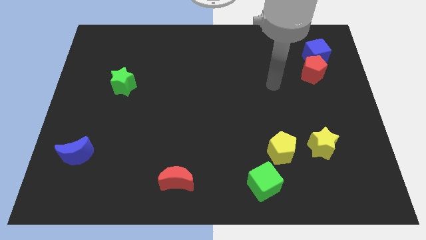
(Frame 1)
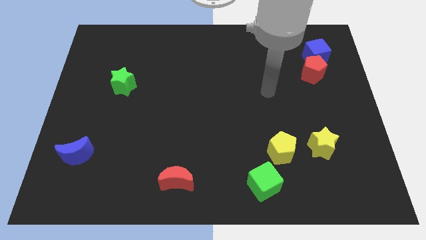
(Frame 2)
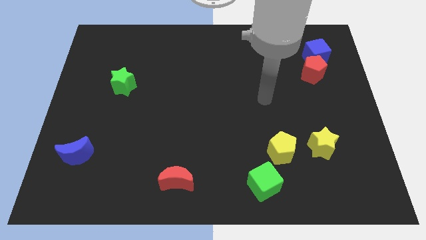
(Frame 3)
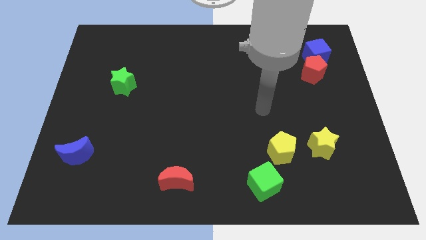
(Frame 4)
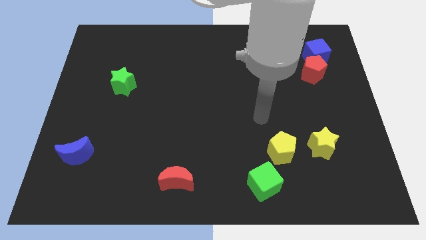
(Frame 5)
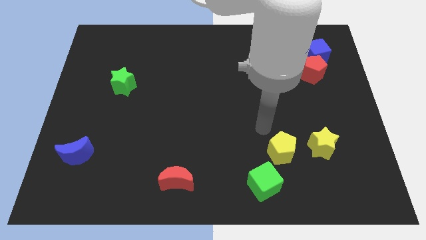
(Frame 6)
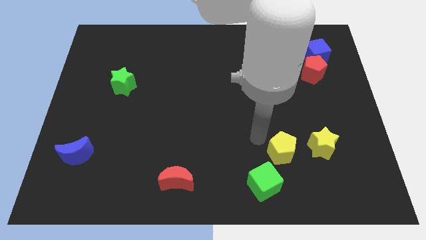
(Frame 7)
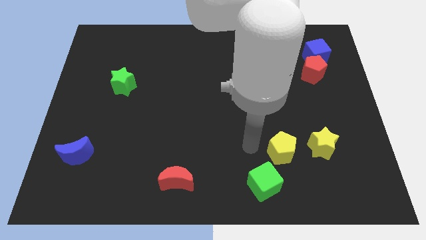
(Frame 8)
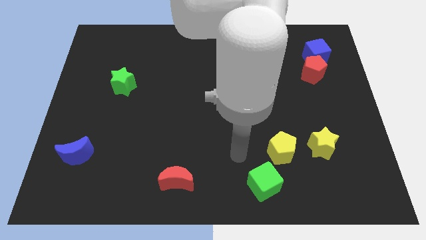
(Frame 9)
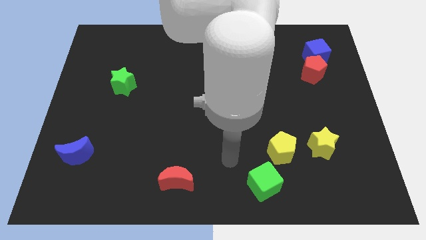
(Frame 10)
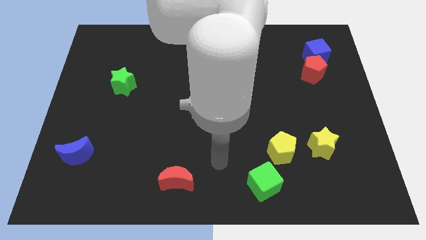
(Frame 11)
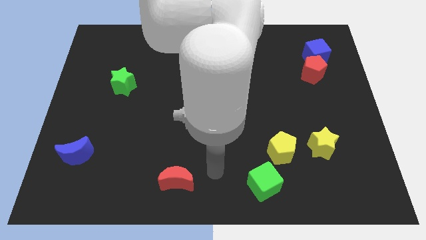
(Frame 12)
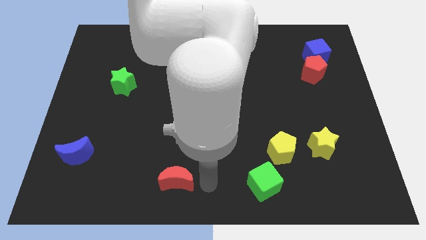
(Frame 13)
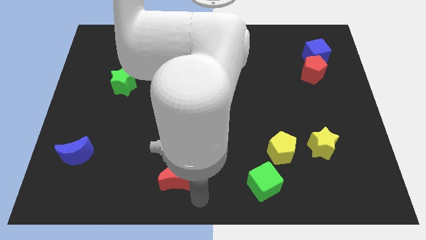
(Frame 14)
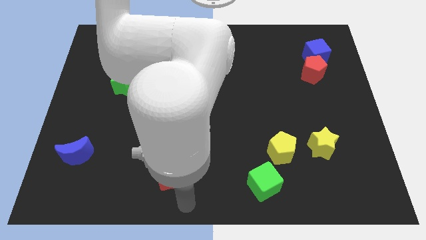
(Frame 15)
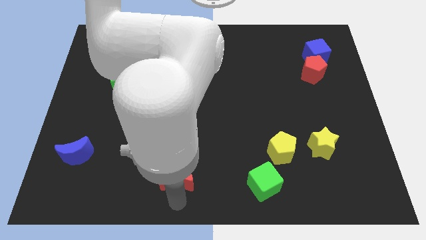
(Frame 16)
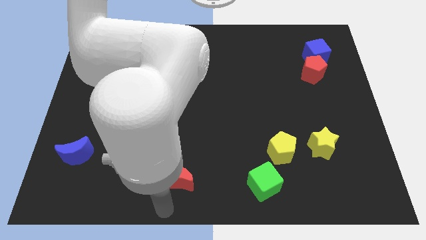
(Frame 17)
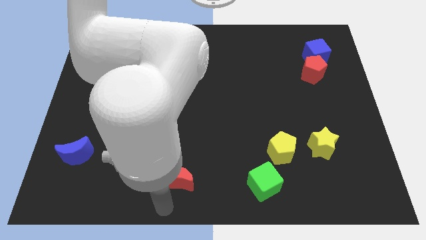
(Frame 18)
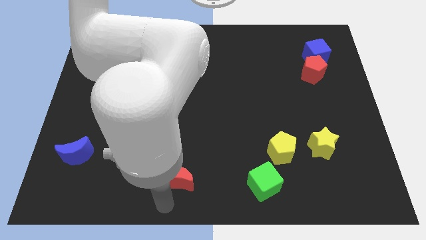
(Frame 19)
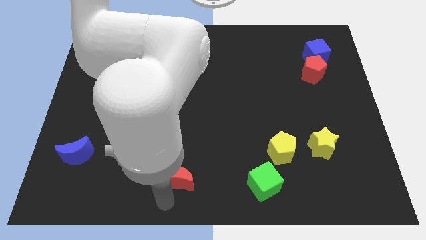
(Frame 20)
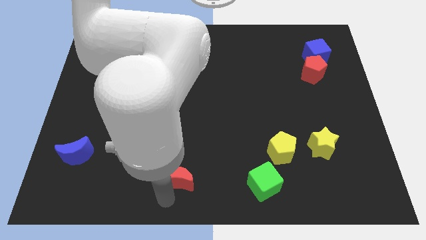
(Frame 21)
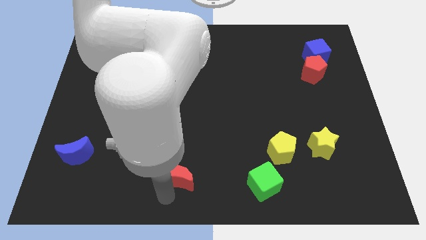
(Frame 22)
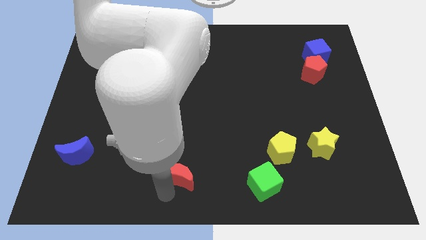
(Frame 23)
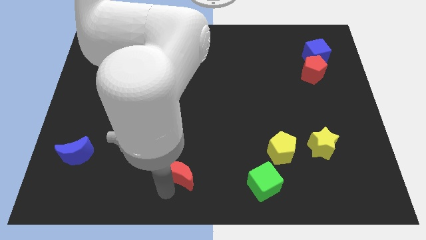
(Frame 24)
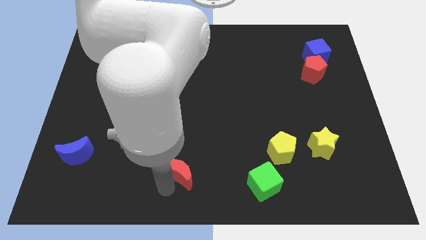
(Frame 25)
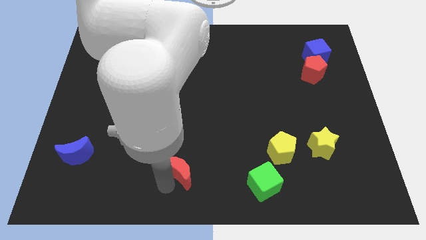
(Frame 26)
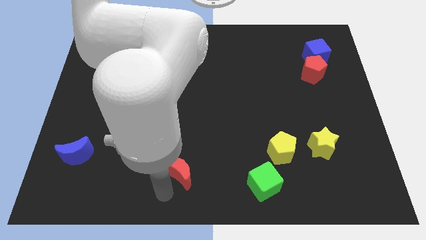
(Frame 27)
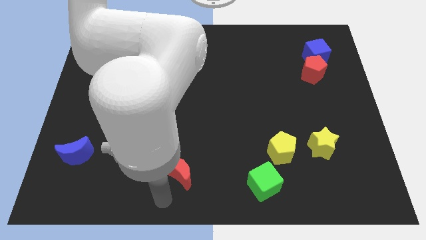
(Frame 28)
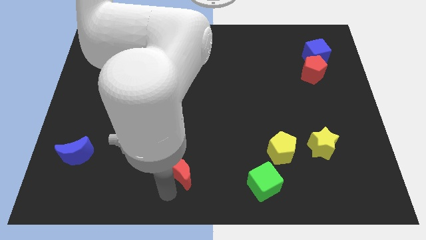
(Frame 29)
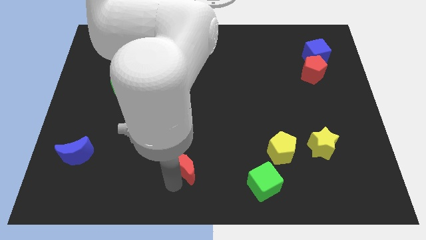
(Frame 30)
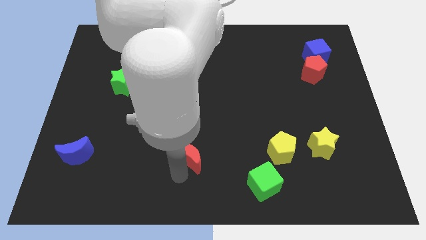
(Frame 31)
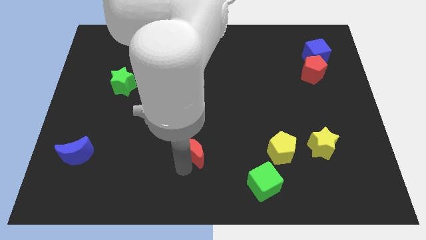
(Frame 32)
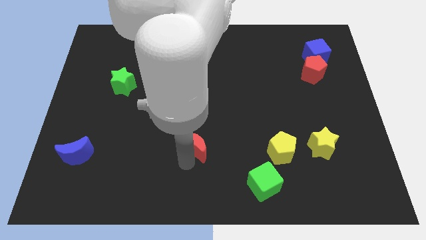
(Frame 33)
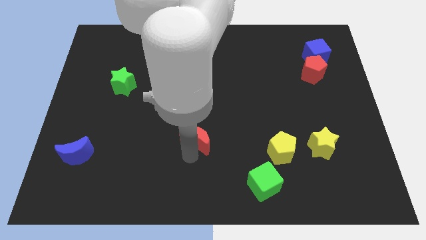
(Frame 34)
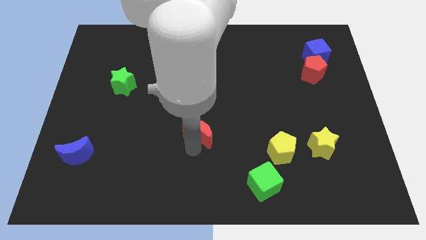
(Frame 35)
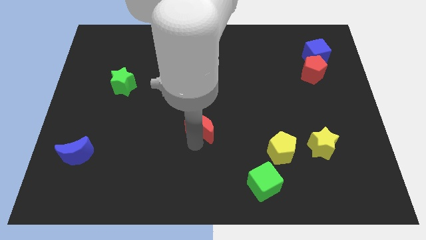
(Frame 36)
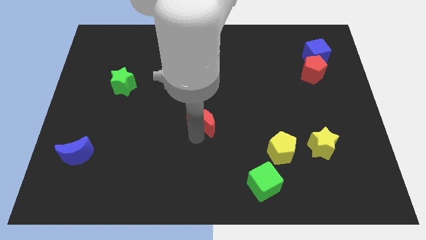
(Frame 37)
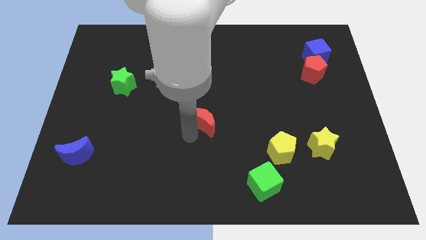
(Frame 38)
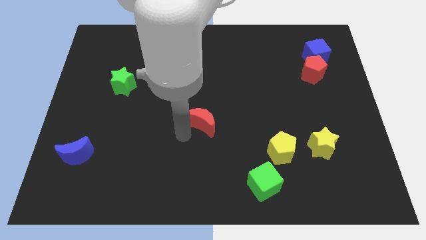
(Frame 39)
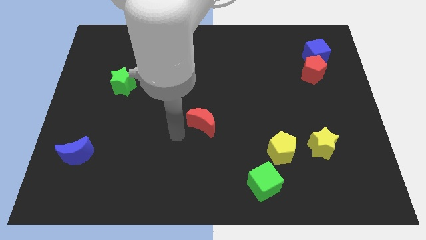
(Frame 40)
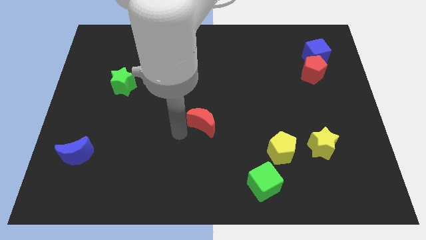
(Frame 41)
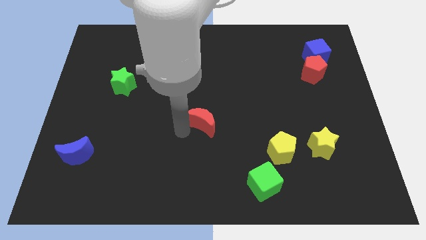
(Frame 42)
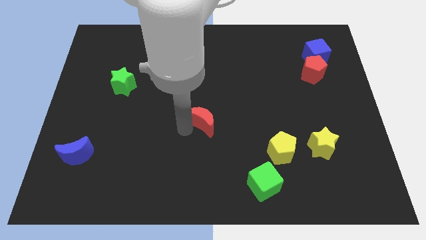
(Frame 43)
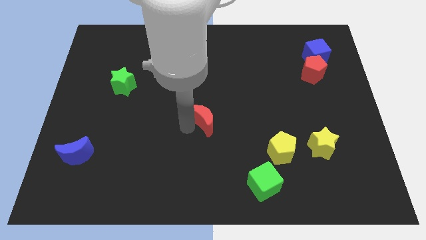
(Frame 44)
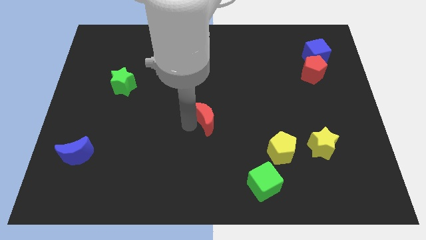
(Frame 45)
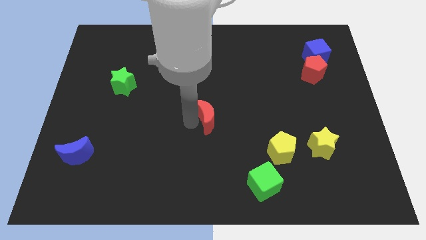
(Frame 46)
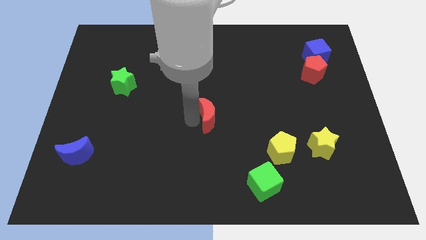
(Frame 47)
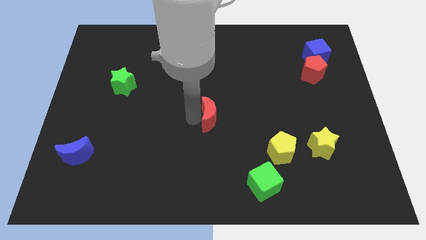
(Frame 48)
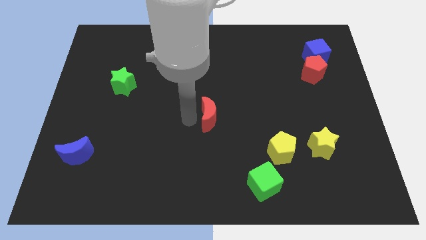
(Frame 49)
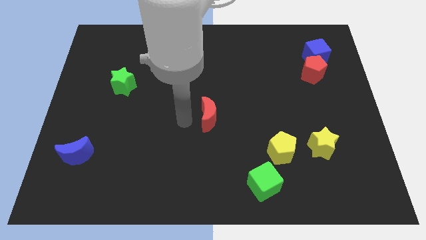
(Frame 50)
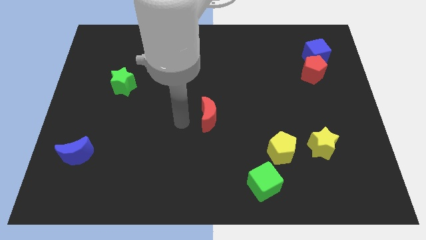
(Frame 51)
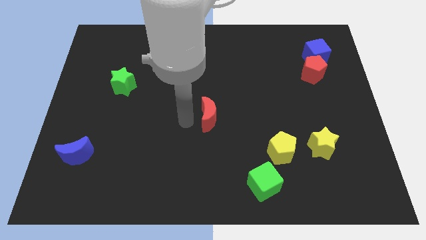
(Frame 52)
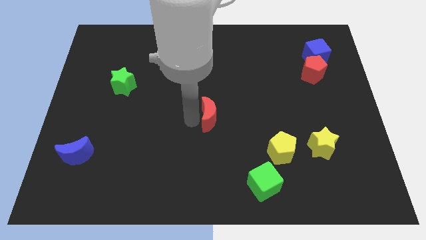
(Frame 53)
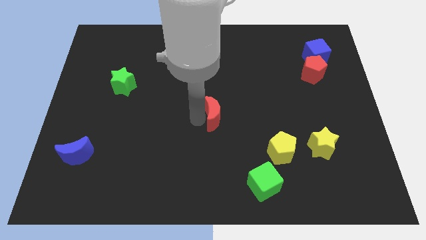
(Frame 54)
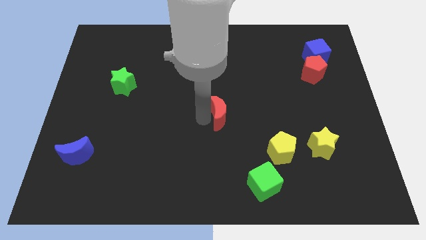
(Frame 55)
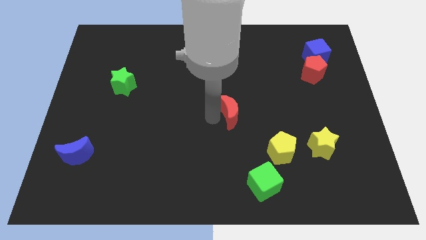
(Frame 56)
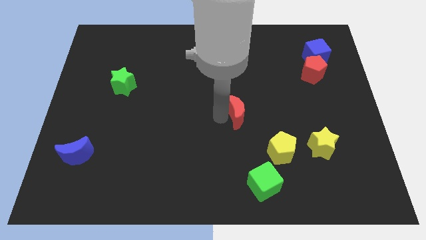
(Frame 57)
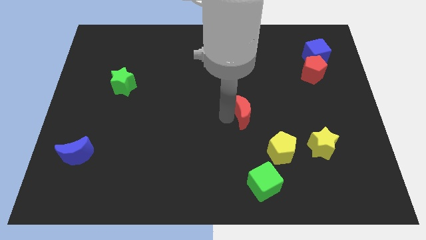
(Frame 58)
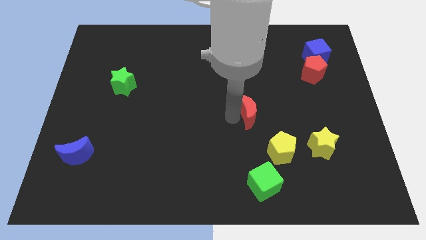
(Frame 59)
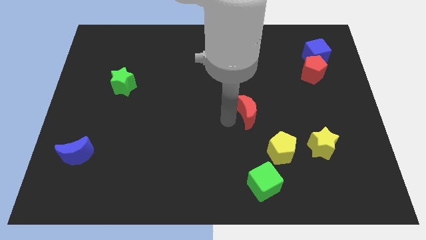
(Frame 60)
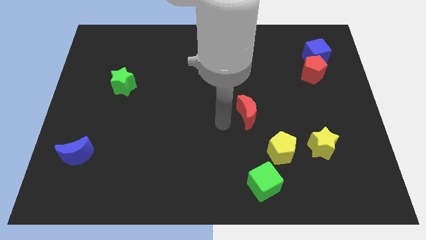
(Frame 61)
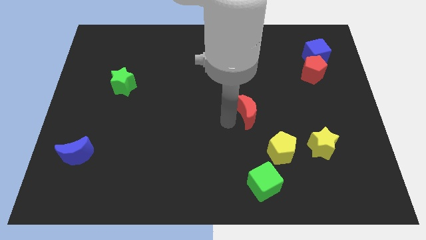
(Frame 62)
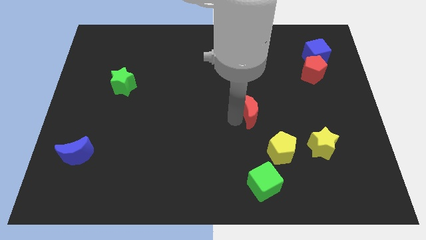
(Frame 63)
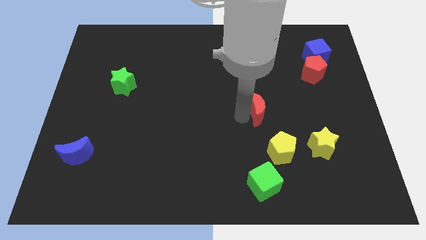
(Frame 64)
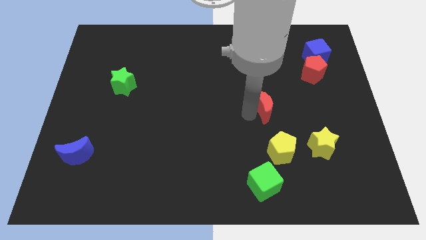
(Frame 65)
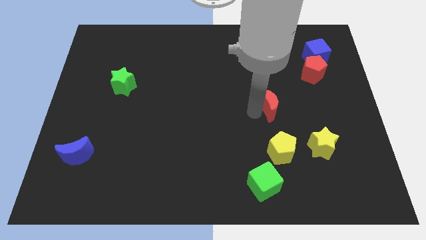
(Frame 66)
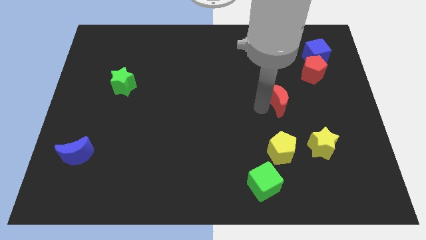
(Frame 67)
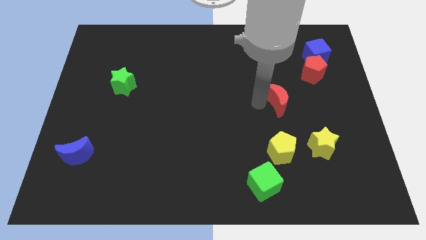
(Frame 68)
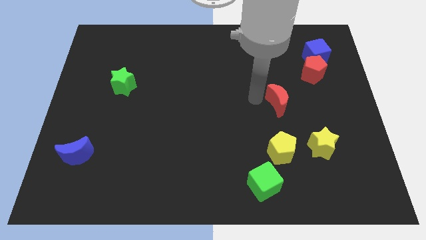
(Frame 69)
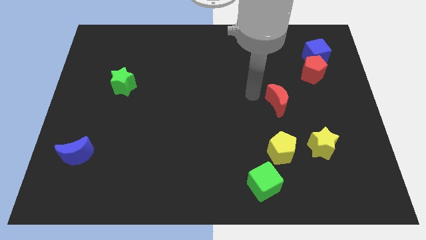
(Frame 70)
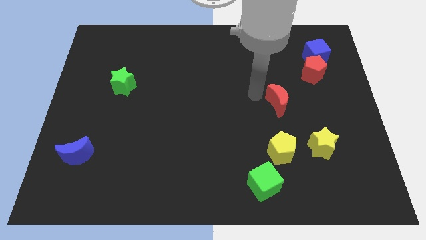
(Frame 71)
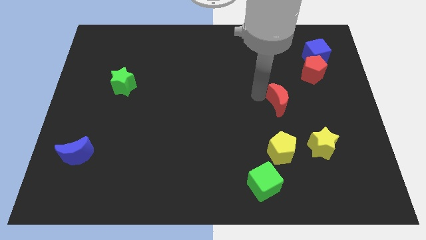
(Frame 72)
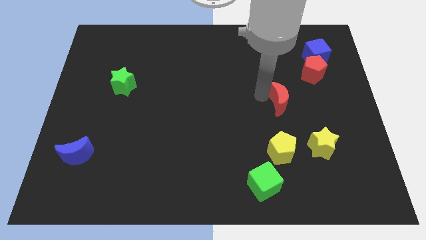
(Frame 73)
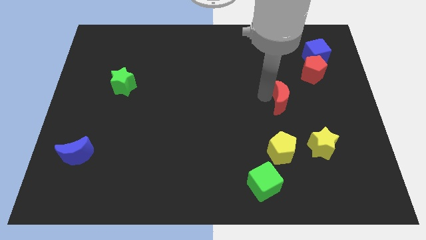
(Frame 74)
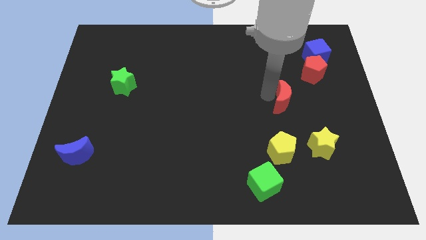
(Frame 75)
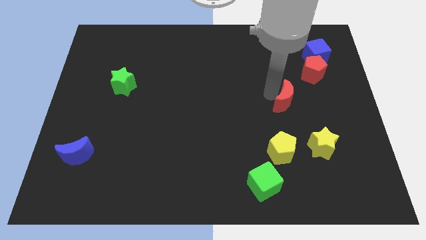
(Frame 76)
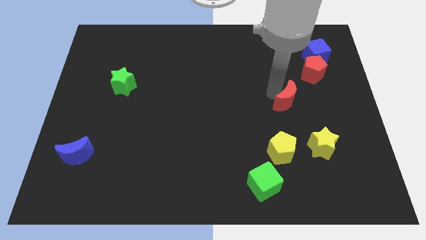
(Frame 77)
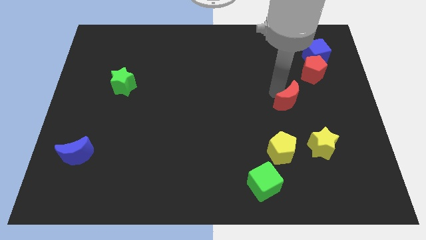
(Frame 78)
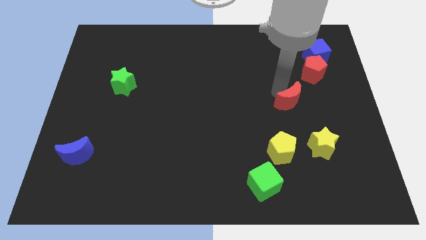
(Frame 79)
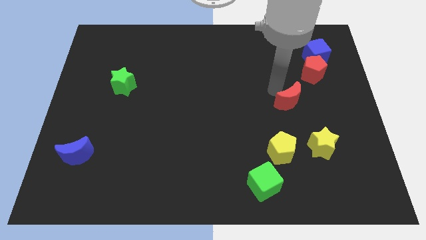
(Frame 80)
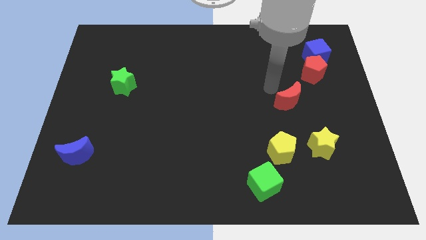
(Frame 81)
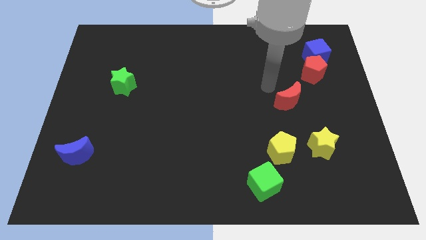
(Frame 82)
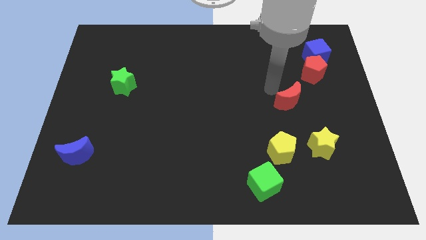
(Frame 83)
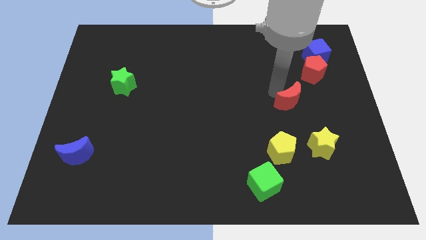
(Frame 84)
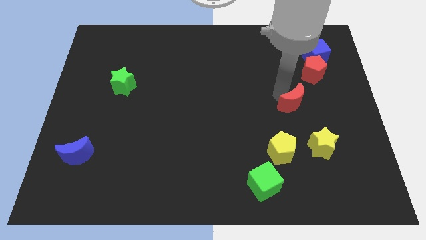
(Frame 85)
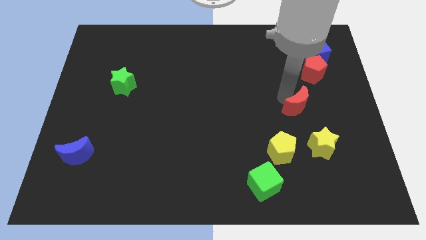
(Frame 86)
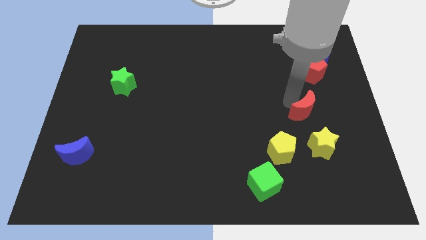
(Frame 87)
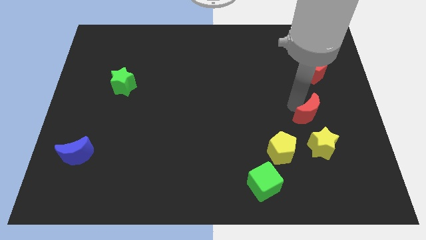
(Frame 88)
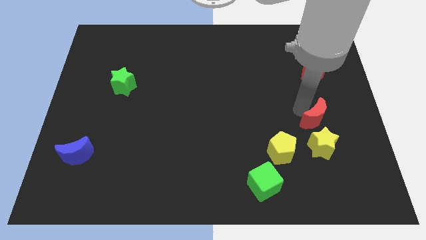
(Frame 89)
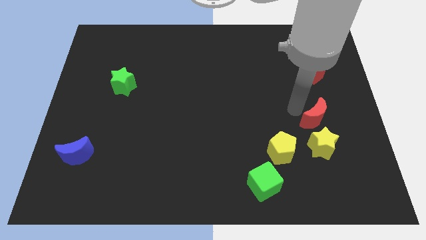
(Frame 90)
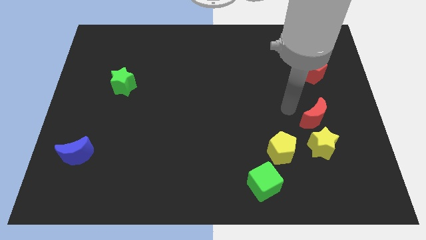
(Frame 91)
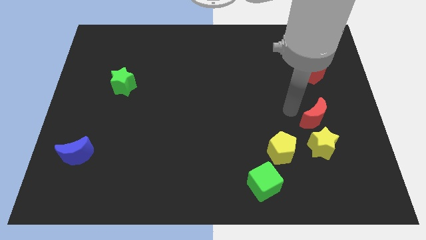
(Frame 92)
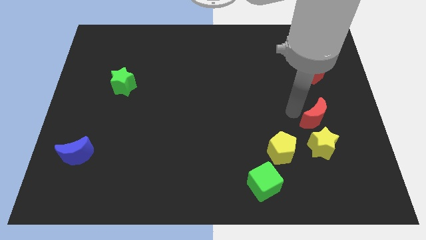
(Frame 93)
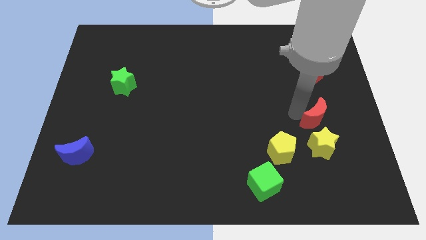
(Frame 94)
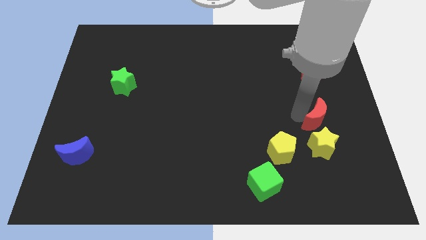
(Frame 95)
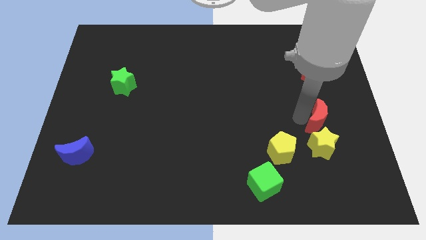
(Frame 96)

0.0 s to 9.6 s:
slide the red moon diagonally up and to the right of the yellow star
